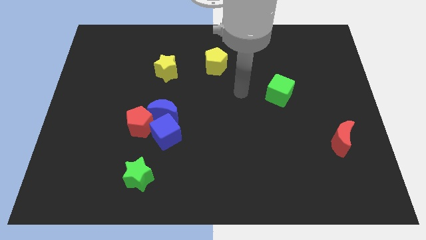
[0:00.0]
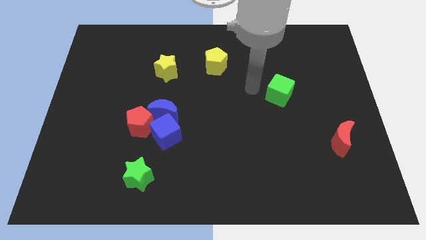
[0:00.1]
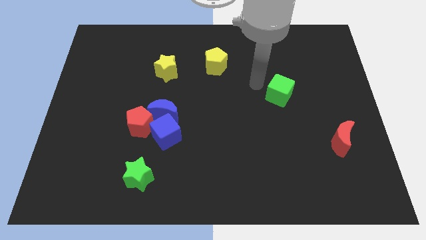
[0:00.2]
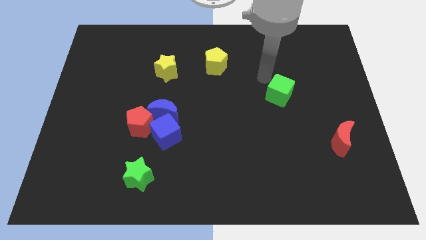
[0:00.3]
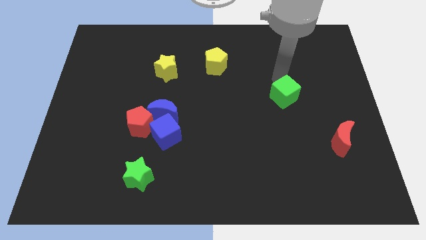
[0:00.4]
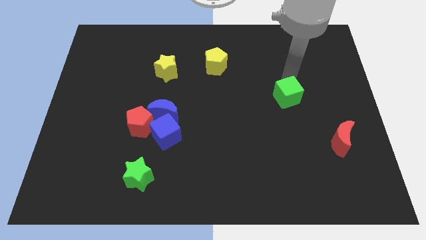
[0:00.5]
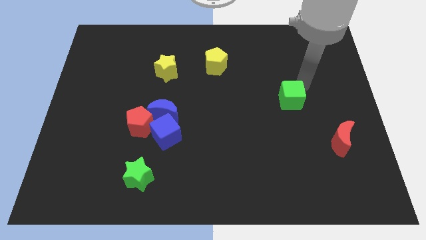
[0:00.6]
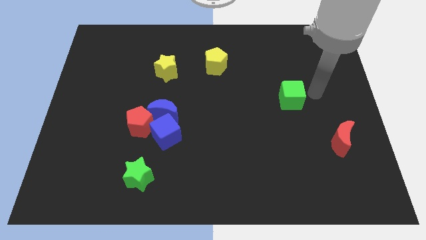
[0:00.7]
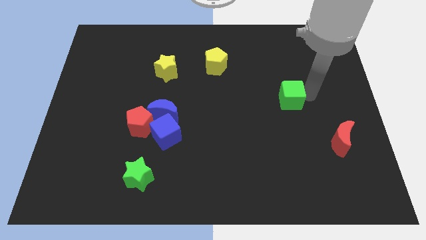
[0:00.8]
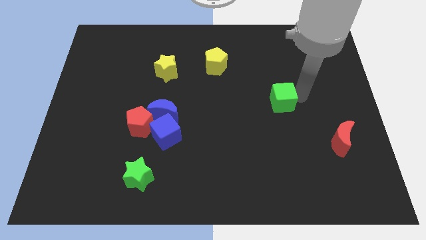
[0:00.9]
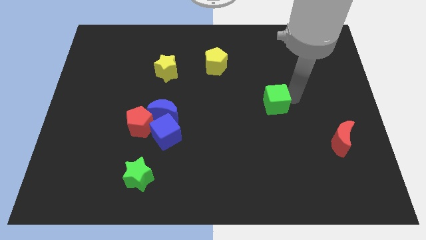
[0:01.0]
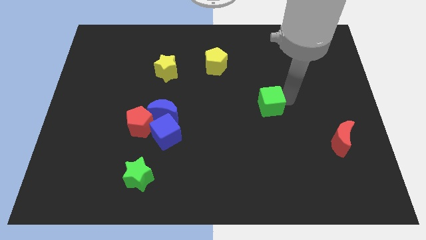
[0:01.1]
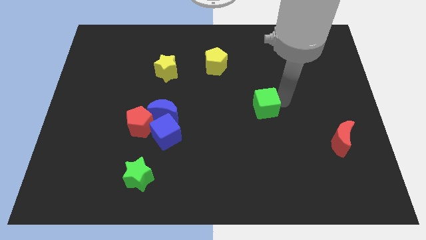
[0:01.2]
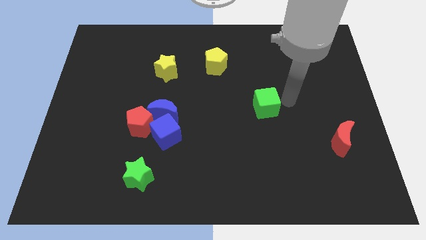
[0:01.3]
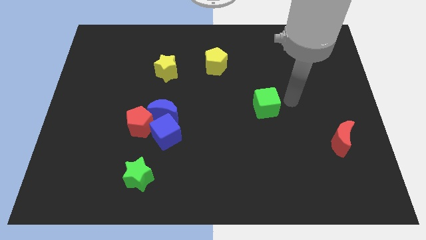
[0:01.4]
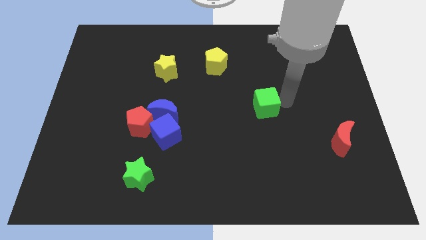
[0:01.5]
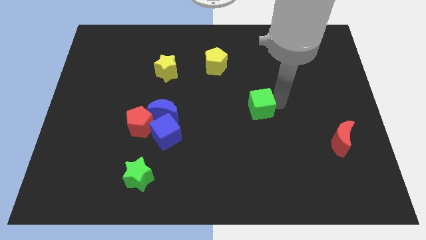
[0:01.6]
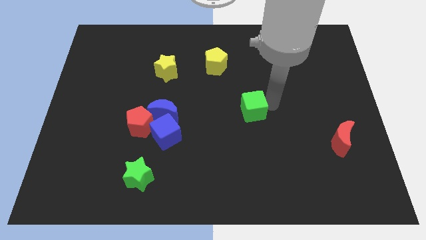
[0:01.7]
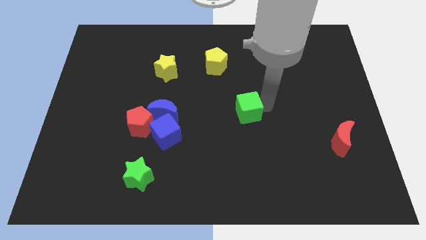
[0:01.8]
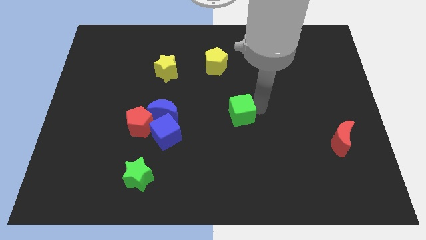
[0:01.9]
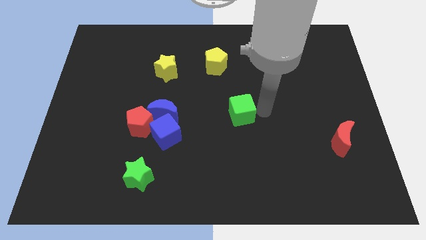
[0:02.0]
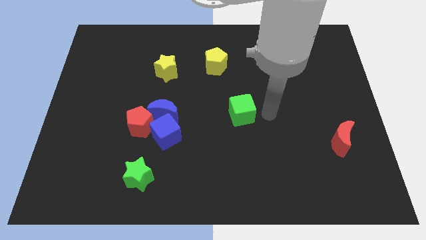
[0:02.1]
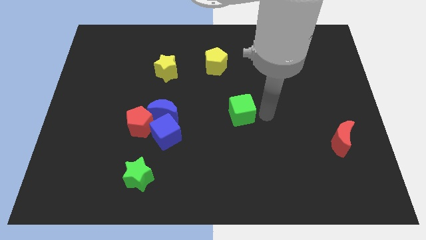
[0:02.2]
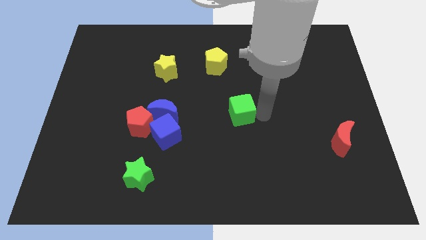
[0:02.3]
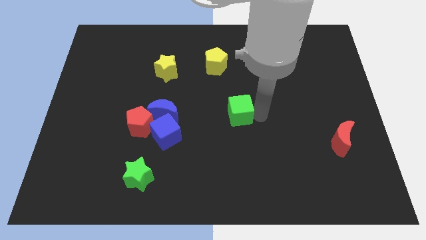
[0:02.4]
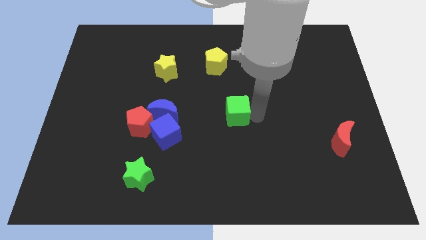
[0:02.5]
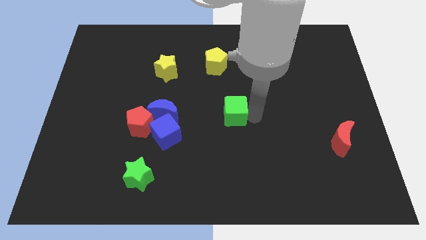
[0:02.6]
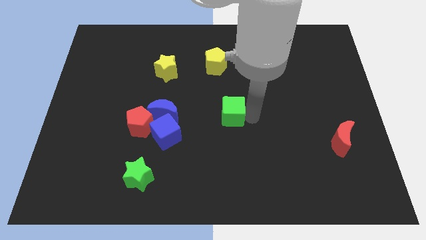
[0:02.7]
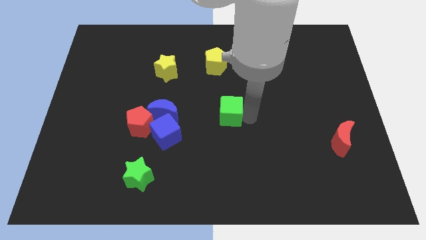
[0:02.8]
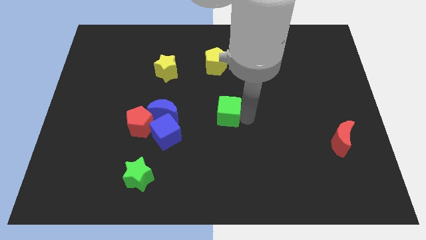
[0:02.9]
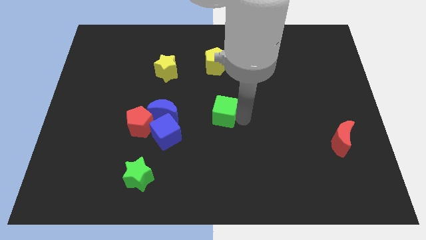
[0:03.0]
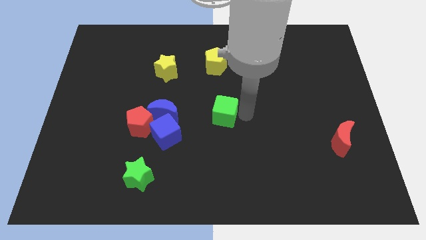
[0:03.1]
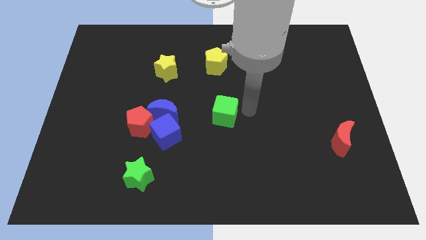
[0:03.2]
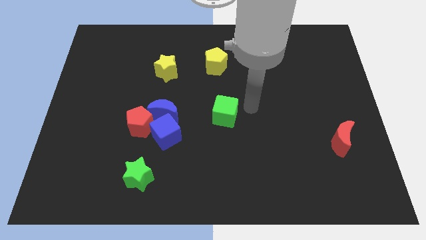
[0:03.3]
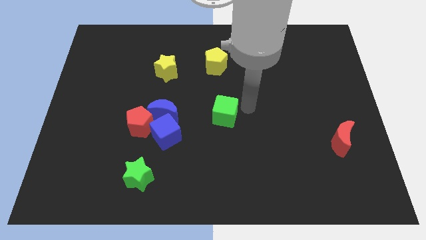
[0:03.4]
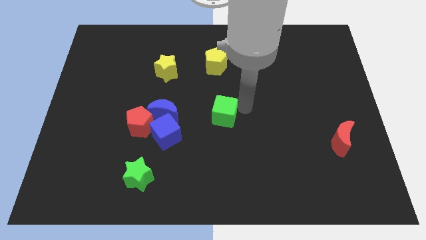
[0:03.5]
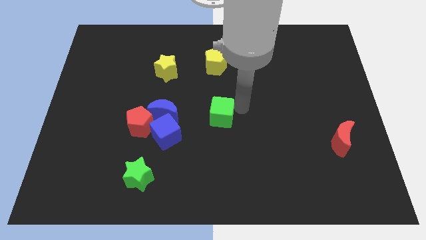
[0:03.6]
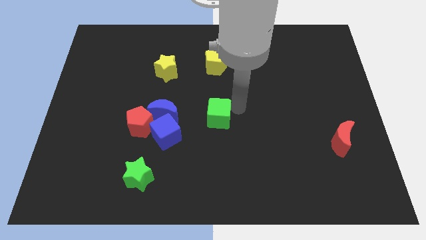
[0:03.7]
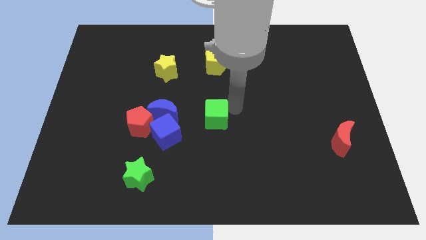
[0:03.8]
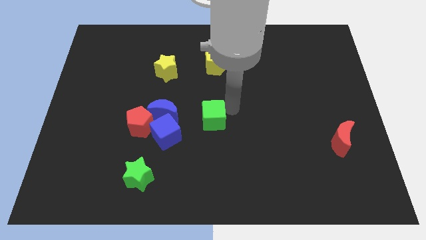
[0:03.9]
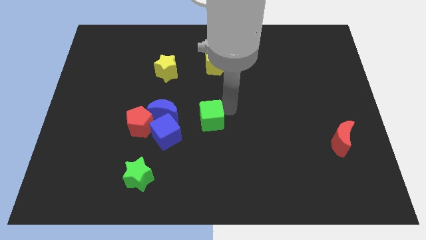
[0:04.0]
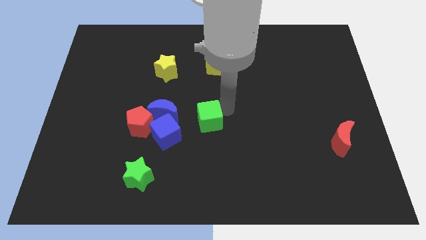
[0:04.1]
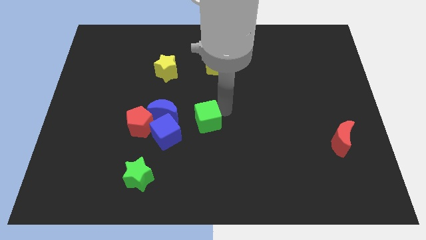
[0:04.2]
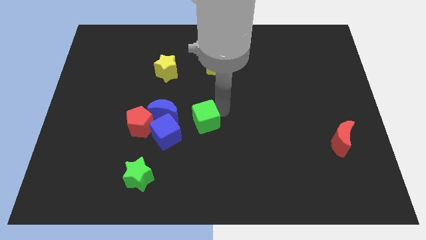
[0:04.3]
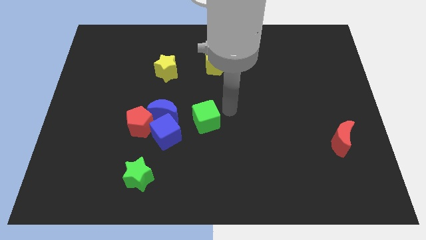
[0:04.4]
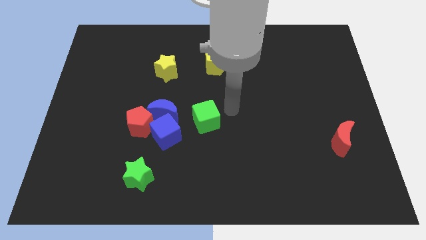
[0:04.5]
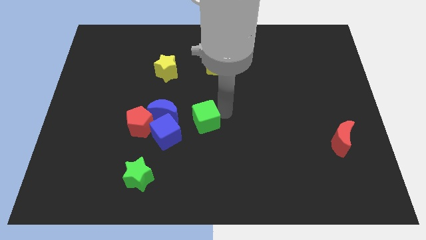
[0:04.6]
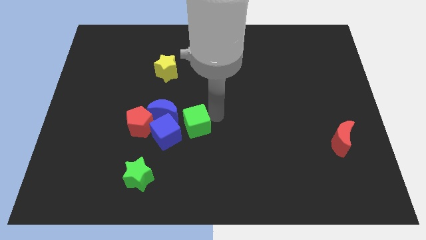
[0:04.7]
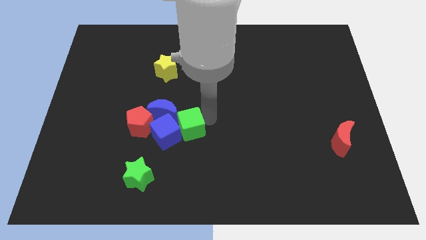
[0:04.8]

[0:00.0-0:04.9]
put the green cube next to the blue cube

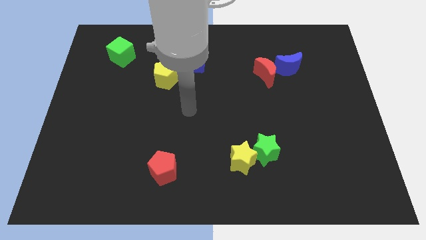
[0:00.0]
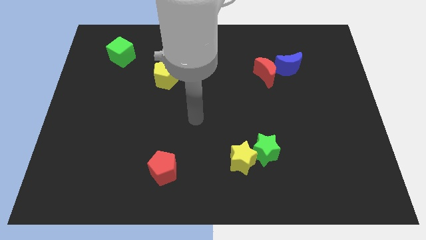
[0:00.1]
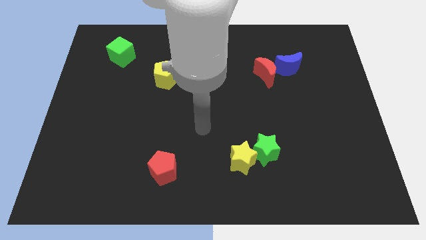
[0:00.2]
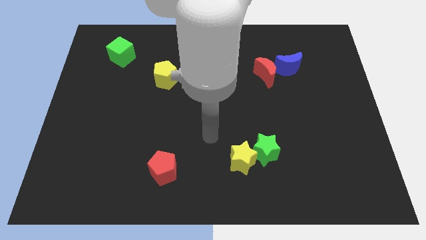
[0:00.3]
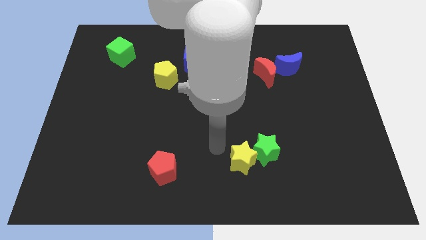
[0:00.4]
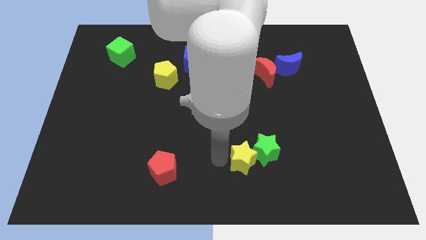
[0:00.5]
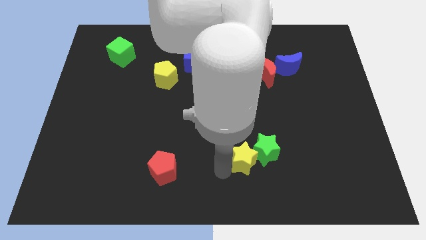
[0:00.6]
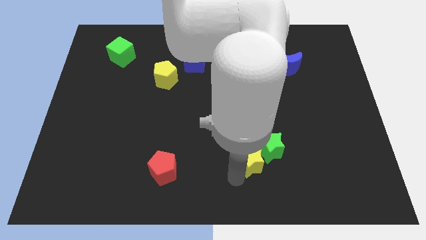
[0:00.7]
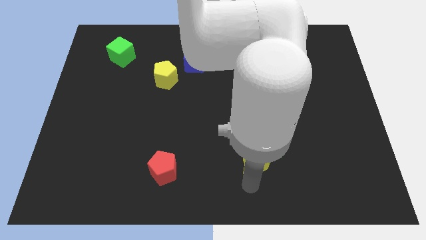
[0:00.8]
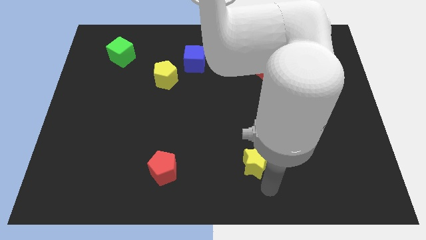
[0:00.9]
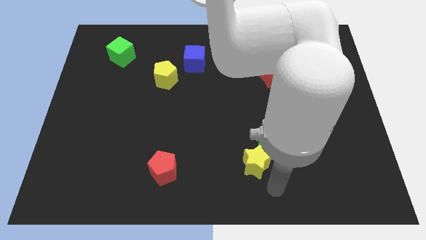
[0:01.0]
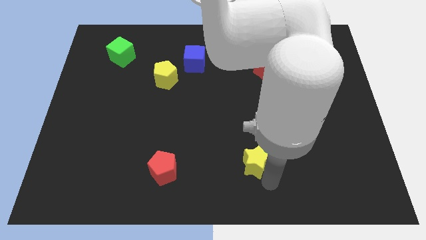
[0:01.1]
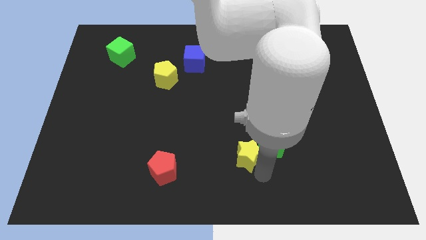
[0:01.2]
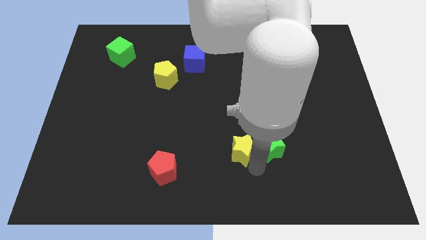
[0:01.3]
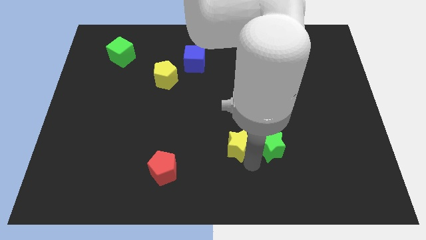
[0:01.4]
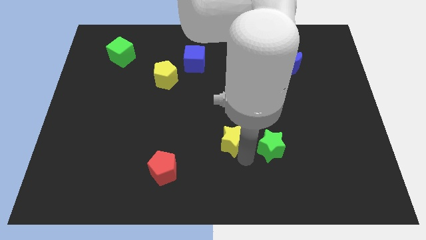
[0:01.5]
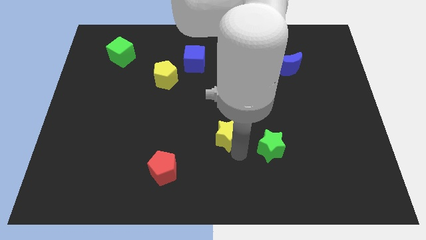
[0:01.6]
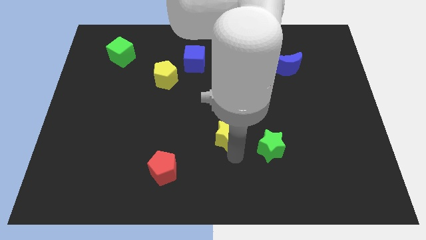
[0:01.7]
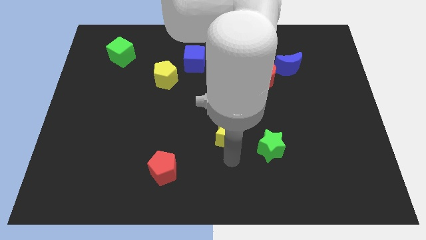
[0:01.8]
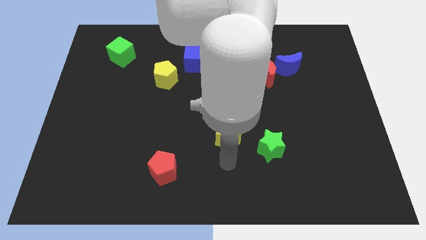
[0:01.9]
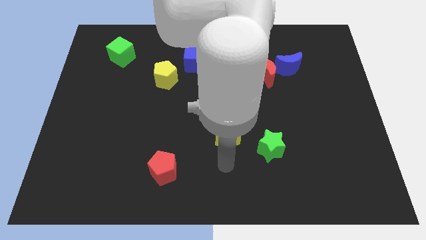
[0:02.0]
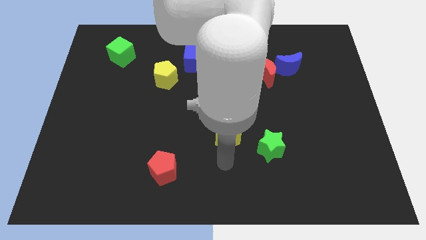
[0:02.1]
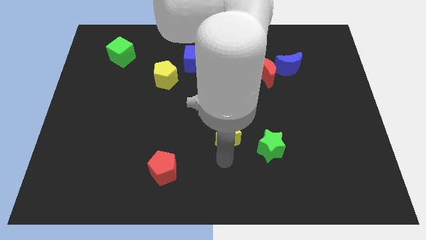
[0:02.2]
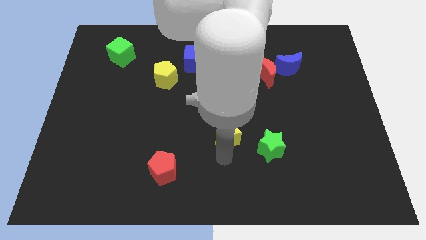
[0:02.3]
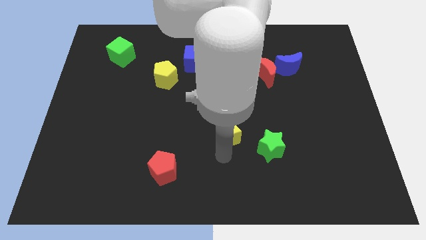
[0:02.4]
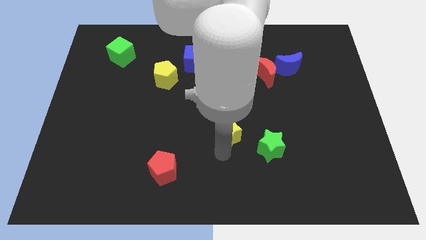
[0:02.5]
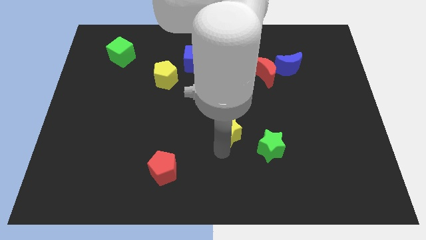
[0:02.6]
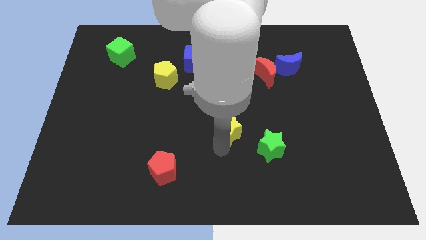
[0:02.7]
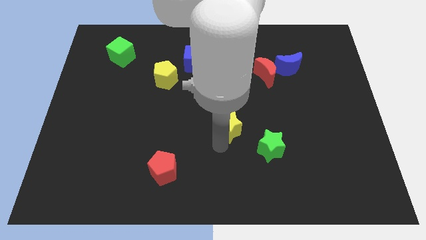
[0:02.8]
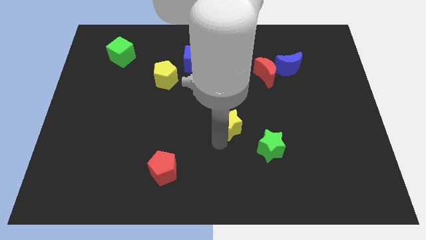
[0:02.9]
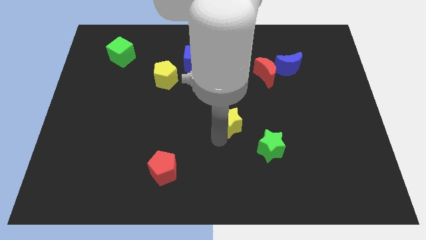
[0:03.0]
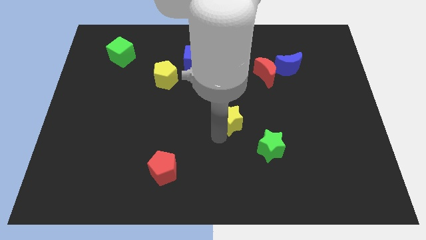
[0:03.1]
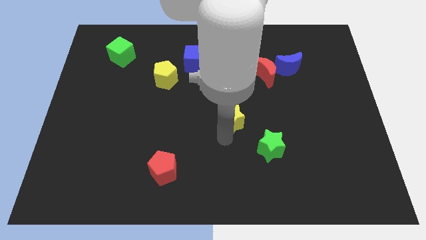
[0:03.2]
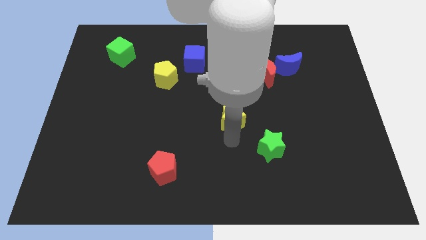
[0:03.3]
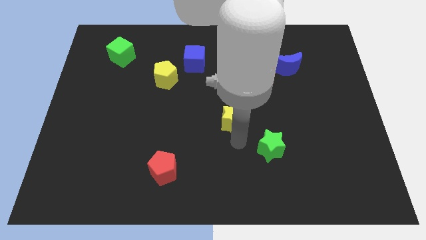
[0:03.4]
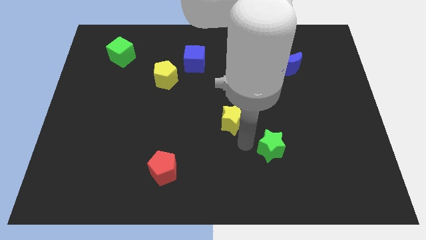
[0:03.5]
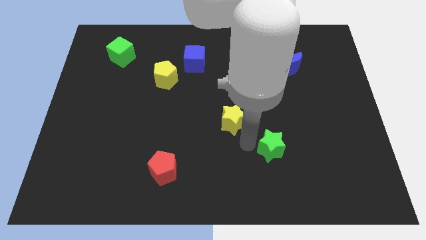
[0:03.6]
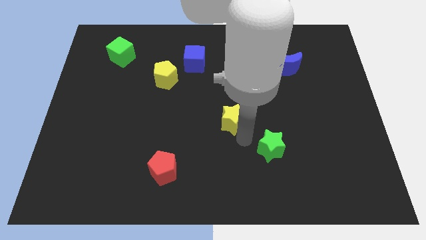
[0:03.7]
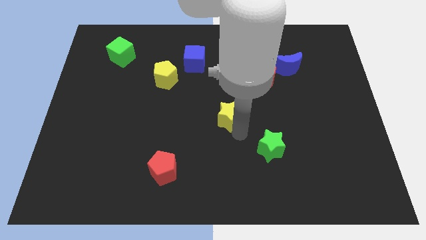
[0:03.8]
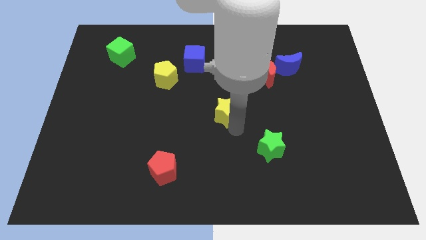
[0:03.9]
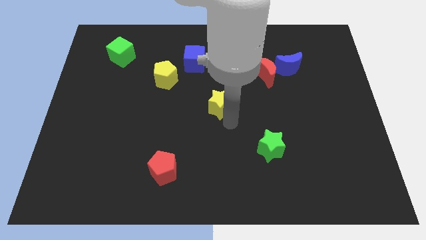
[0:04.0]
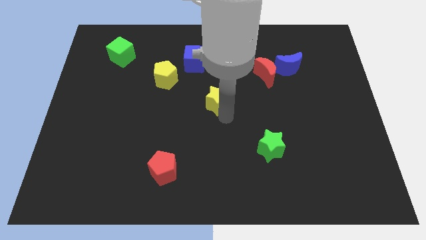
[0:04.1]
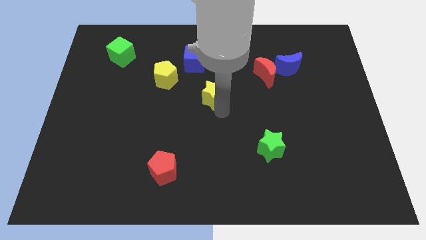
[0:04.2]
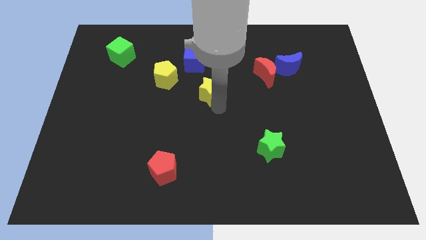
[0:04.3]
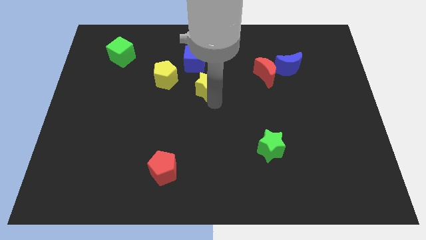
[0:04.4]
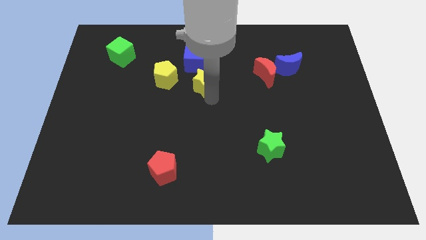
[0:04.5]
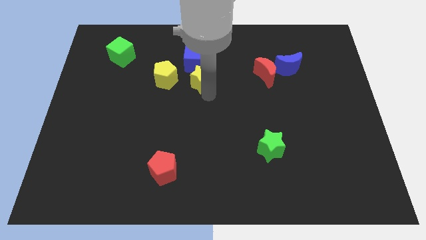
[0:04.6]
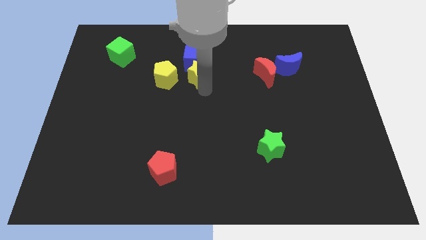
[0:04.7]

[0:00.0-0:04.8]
push the yellow star close to the blue cube
